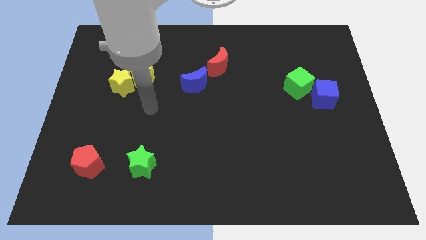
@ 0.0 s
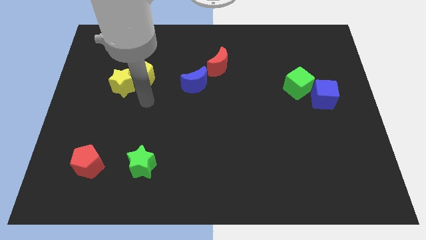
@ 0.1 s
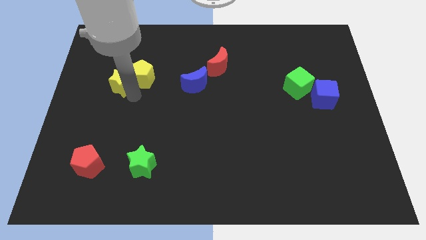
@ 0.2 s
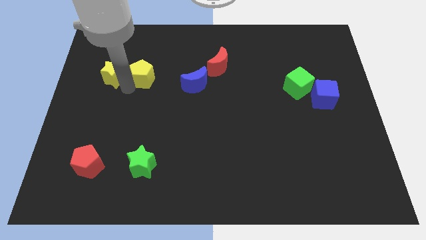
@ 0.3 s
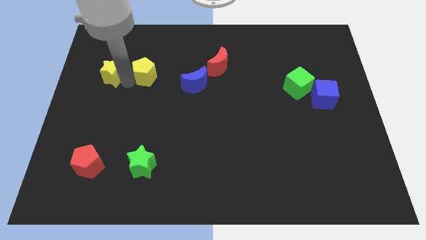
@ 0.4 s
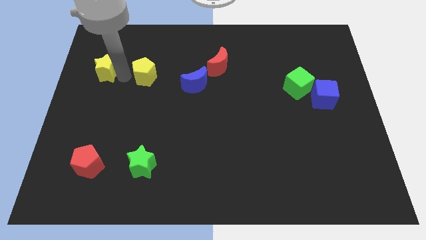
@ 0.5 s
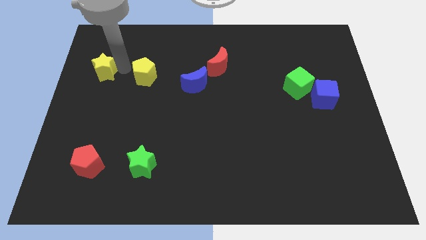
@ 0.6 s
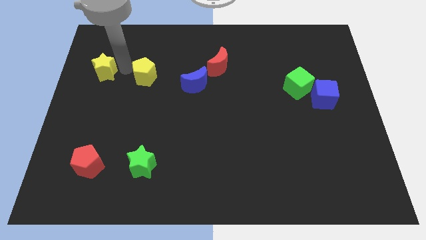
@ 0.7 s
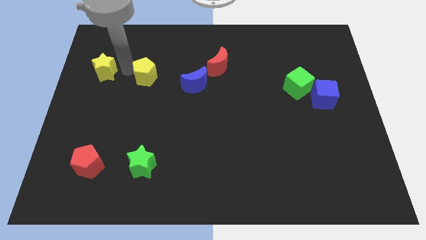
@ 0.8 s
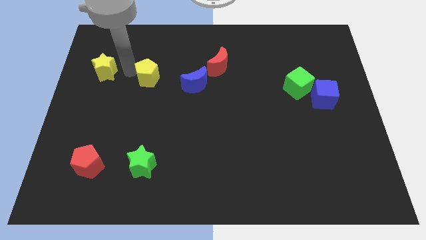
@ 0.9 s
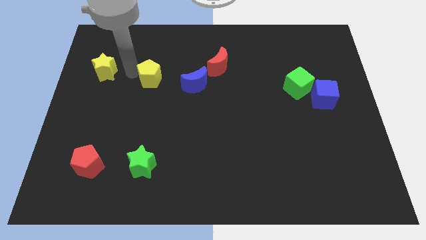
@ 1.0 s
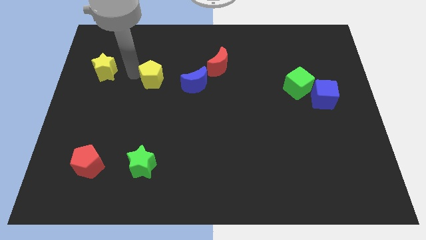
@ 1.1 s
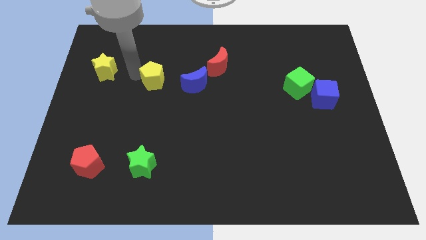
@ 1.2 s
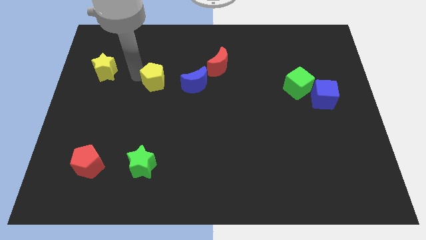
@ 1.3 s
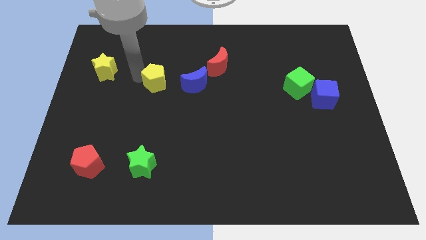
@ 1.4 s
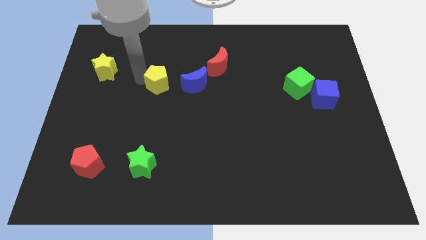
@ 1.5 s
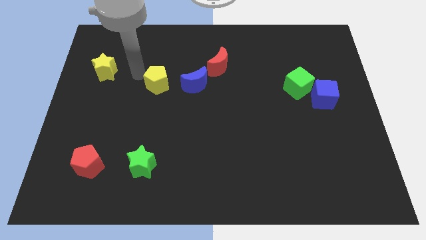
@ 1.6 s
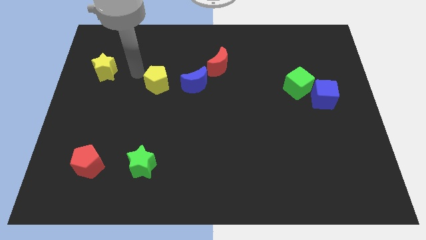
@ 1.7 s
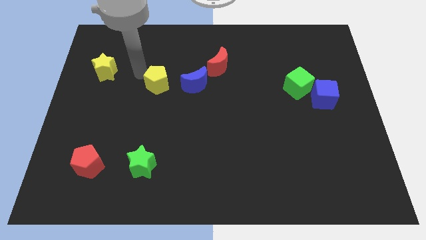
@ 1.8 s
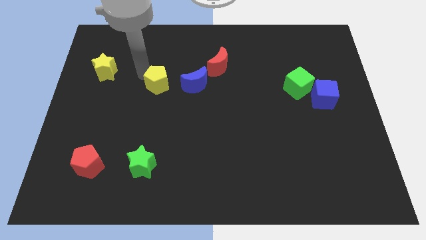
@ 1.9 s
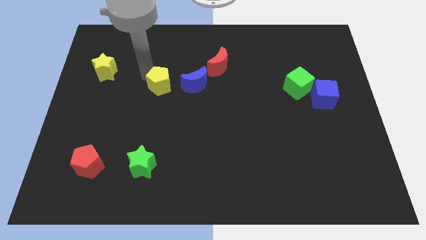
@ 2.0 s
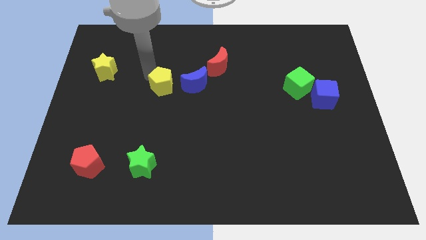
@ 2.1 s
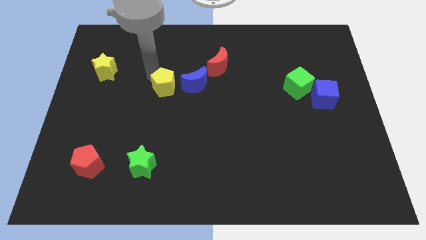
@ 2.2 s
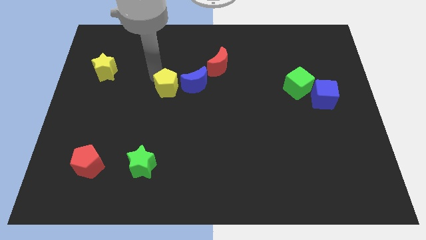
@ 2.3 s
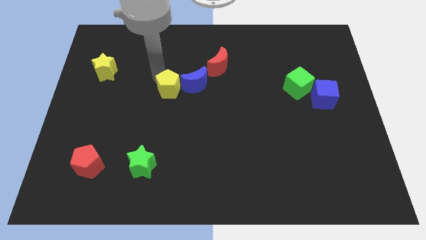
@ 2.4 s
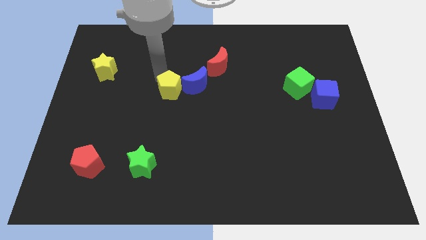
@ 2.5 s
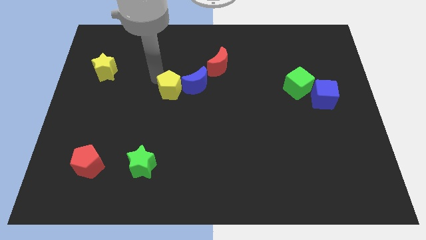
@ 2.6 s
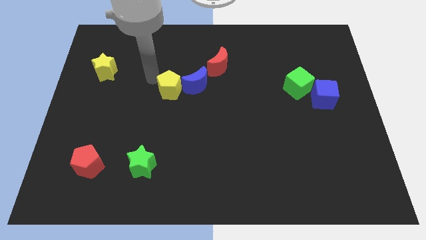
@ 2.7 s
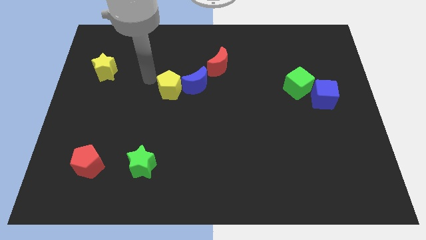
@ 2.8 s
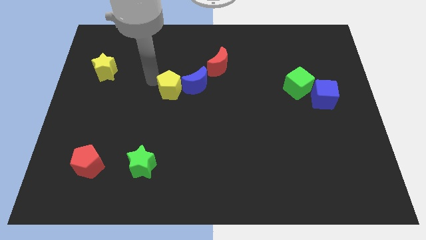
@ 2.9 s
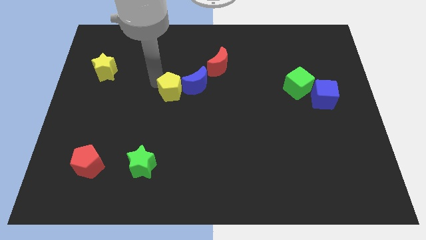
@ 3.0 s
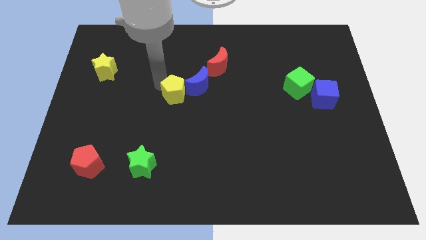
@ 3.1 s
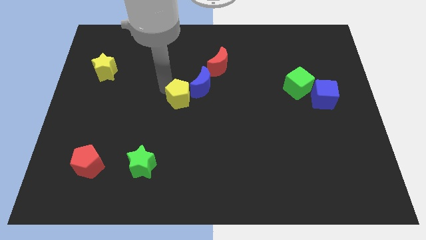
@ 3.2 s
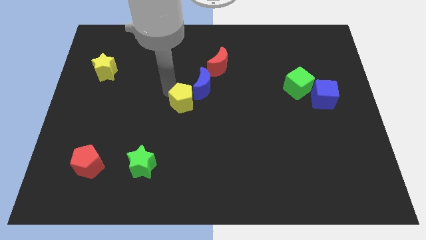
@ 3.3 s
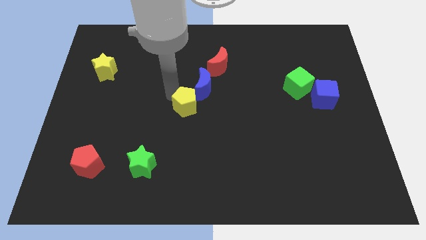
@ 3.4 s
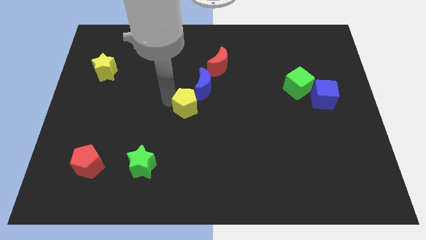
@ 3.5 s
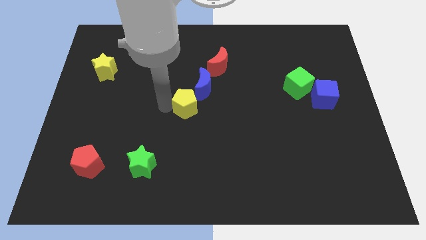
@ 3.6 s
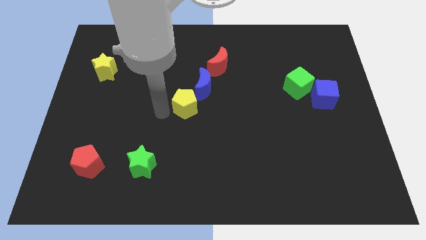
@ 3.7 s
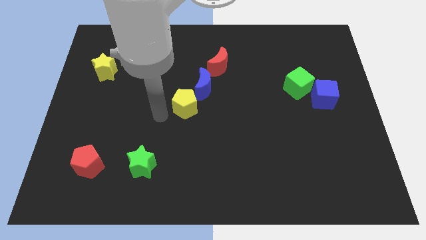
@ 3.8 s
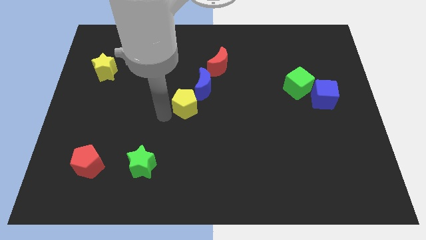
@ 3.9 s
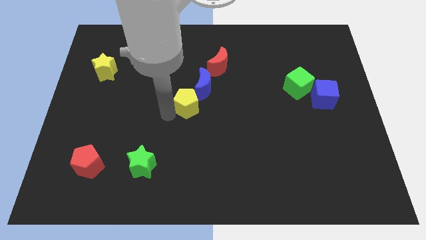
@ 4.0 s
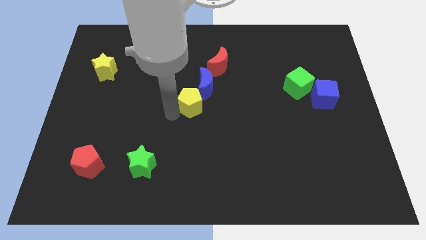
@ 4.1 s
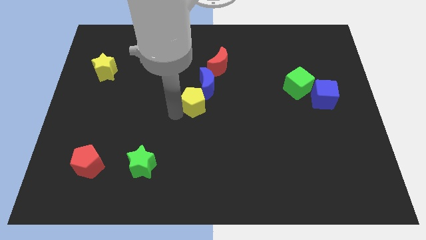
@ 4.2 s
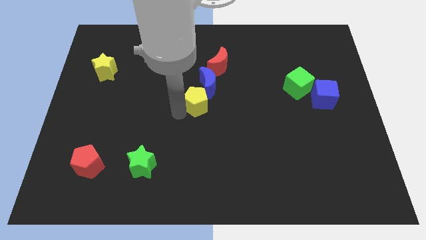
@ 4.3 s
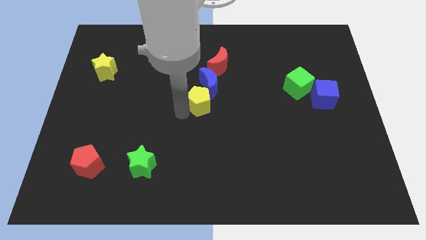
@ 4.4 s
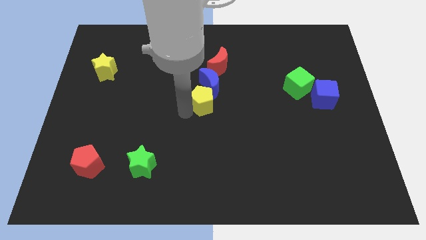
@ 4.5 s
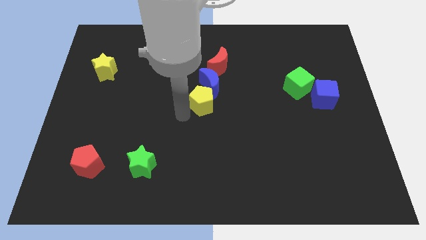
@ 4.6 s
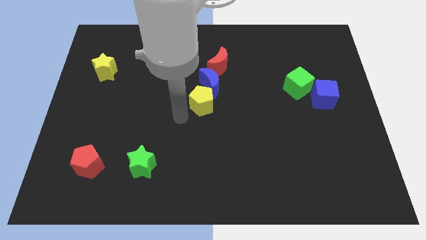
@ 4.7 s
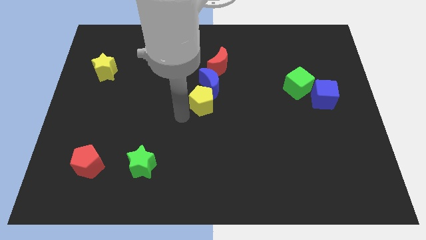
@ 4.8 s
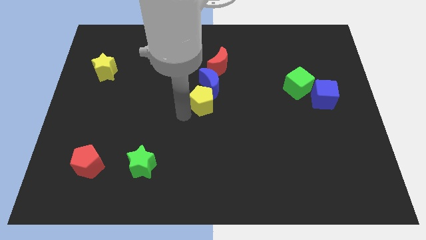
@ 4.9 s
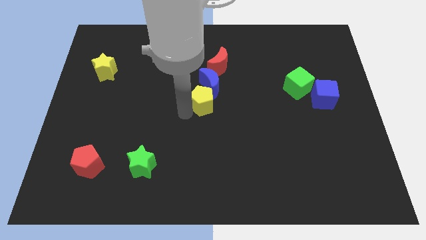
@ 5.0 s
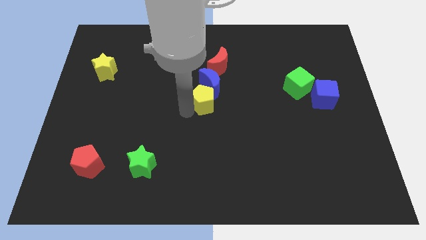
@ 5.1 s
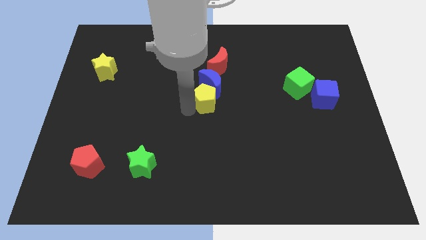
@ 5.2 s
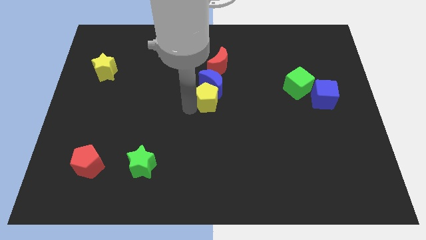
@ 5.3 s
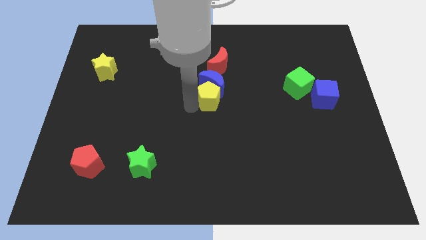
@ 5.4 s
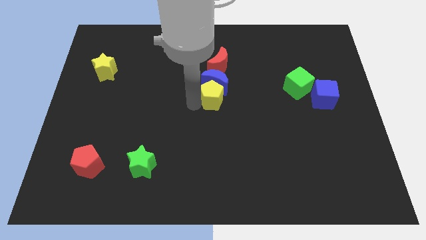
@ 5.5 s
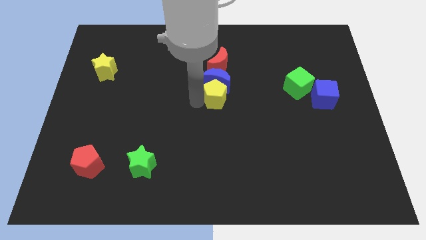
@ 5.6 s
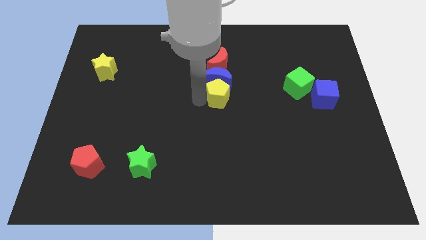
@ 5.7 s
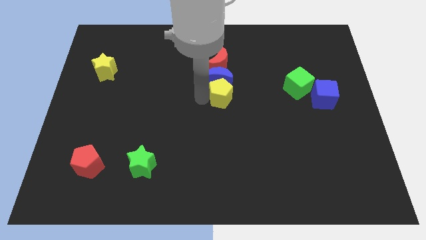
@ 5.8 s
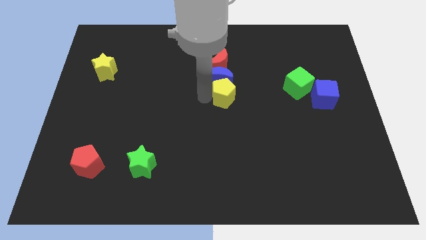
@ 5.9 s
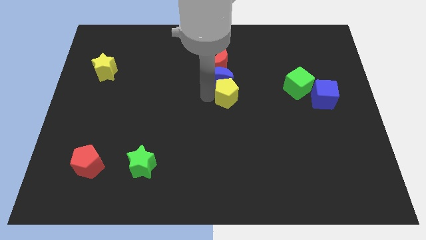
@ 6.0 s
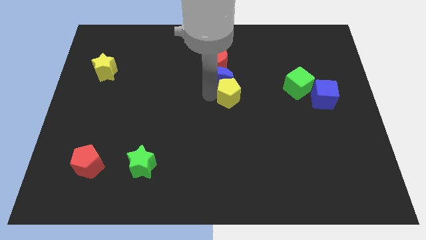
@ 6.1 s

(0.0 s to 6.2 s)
slide the yellow pentagon right

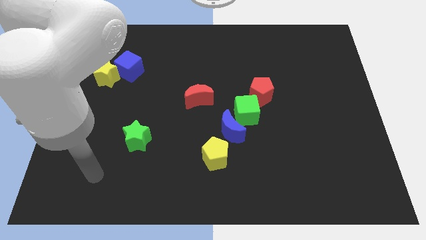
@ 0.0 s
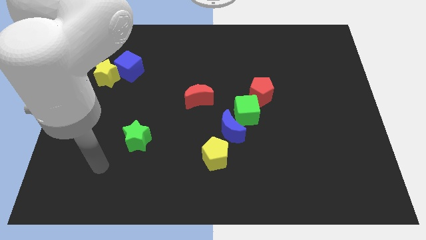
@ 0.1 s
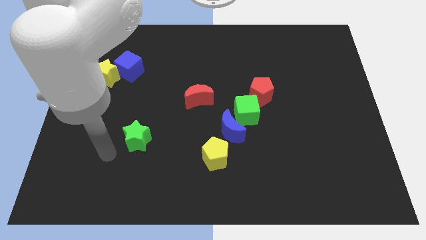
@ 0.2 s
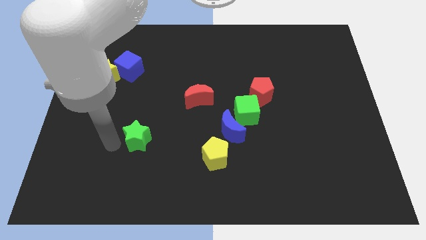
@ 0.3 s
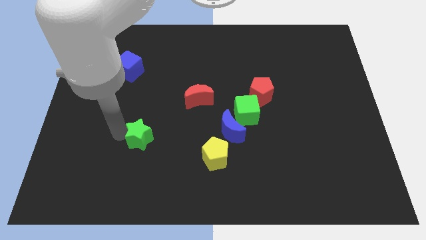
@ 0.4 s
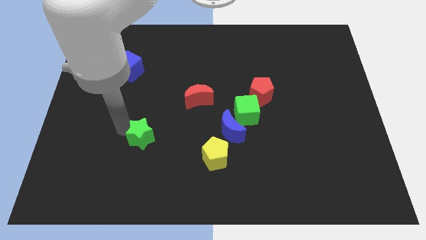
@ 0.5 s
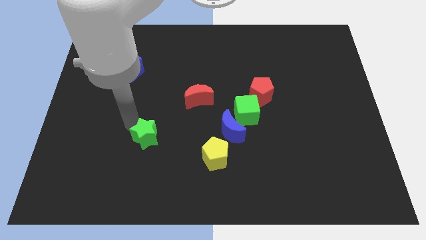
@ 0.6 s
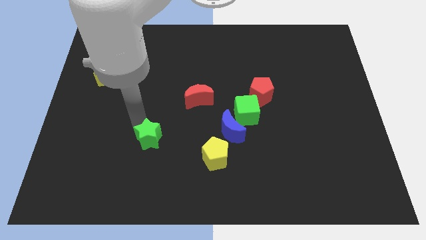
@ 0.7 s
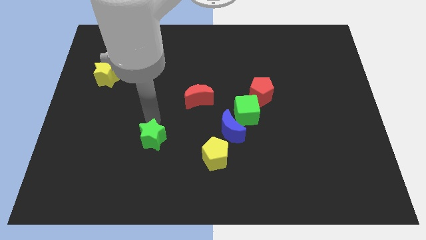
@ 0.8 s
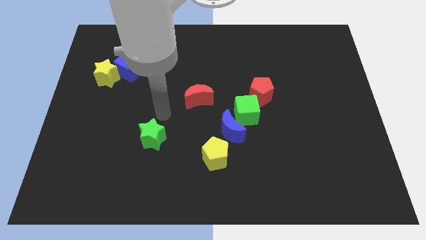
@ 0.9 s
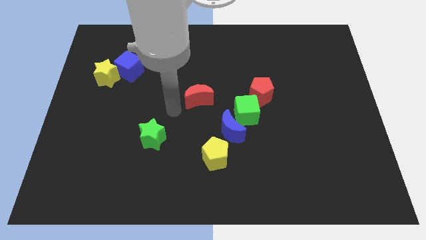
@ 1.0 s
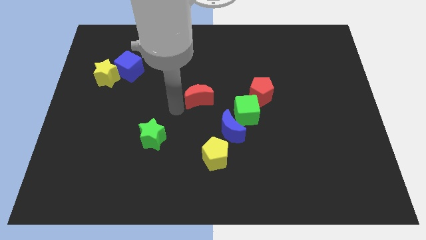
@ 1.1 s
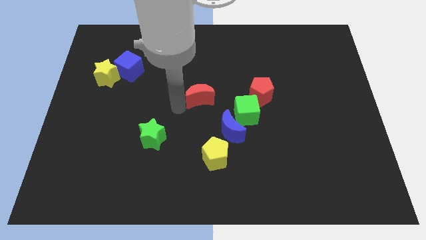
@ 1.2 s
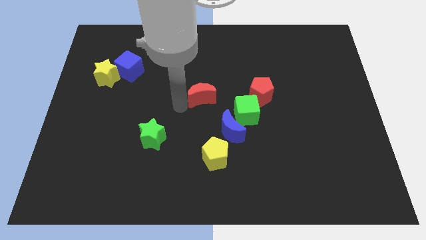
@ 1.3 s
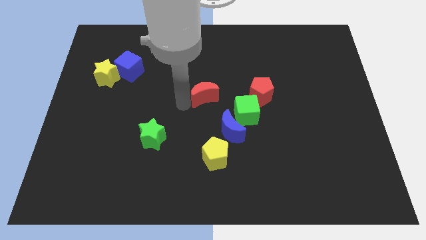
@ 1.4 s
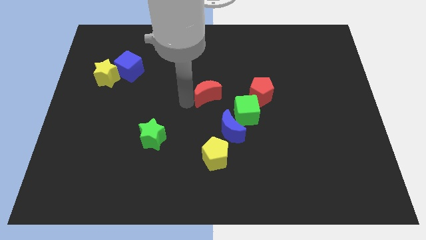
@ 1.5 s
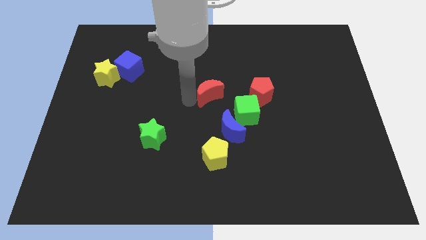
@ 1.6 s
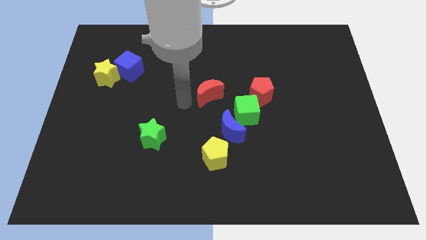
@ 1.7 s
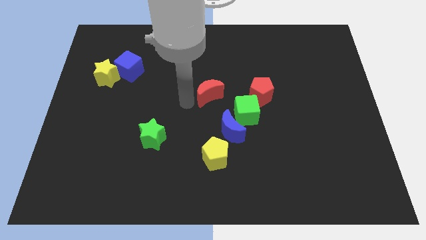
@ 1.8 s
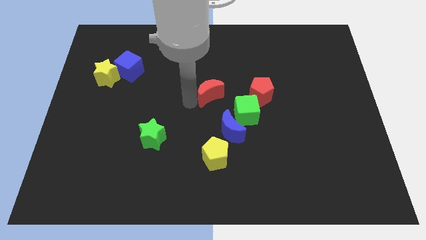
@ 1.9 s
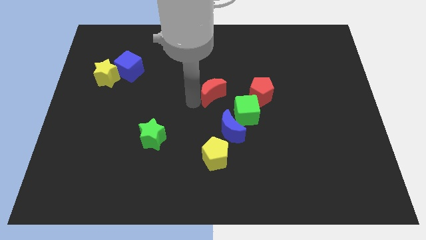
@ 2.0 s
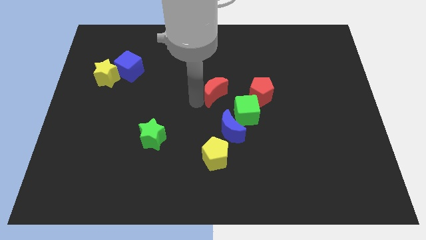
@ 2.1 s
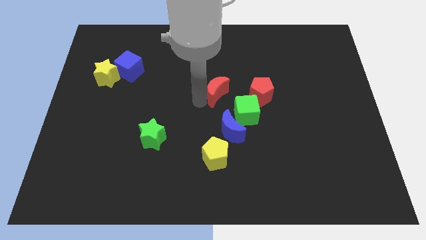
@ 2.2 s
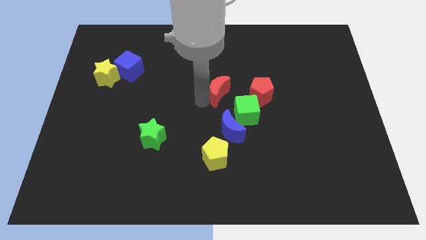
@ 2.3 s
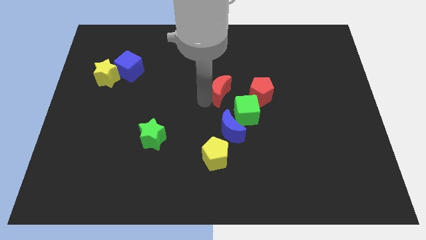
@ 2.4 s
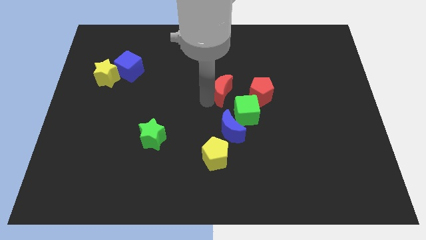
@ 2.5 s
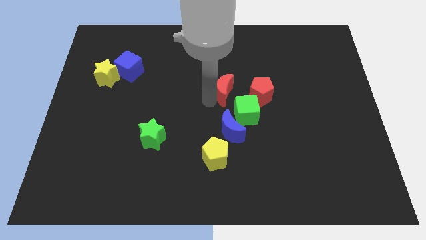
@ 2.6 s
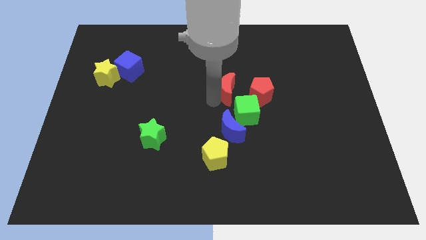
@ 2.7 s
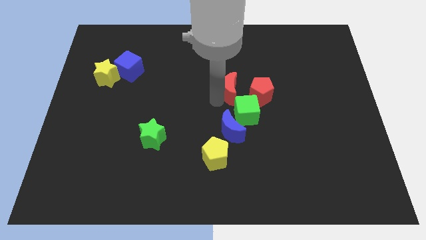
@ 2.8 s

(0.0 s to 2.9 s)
slightly push the red moon to the right
